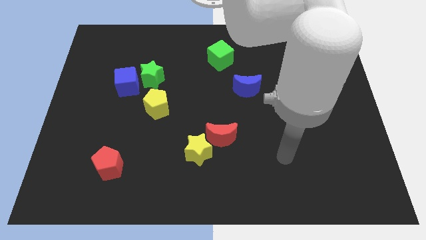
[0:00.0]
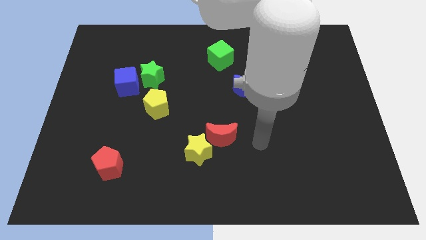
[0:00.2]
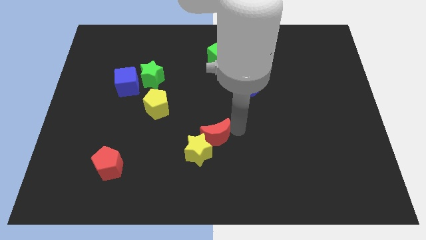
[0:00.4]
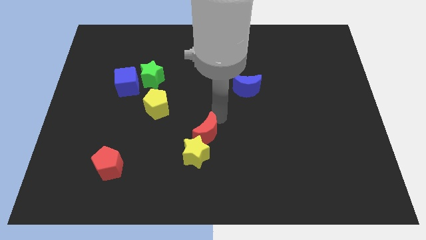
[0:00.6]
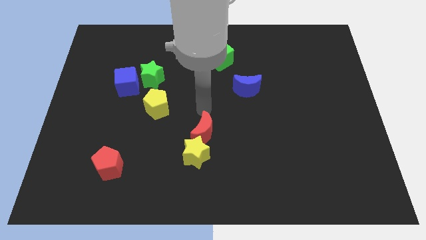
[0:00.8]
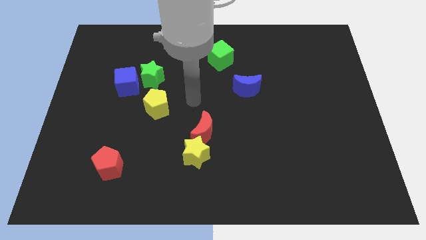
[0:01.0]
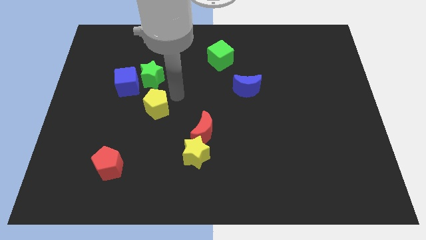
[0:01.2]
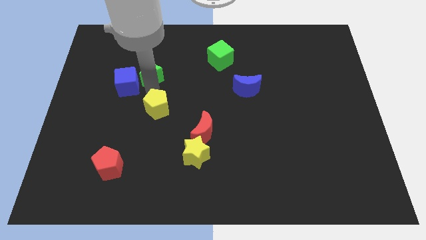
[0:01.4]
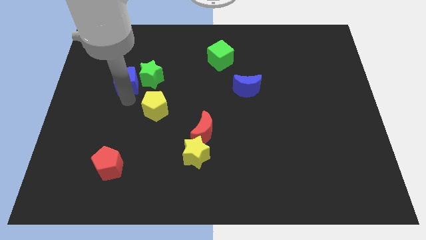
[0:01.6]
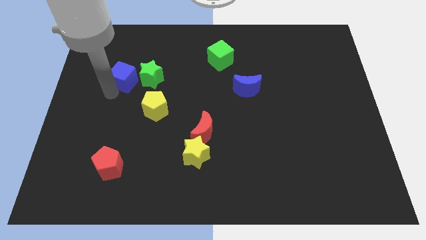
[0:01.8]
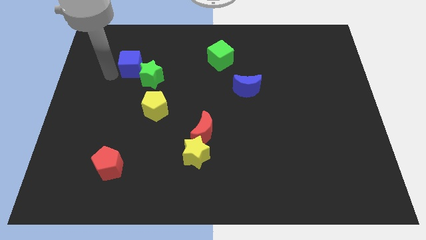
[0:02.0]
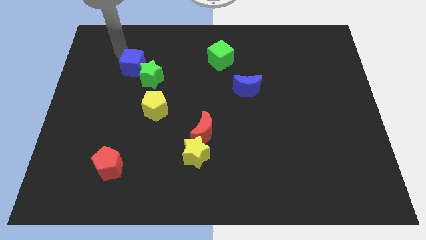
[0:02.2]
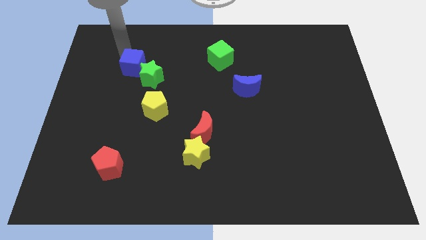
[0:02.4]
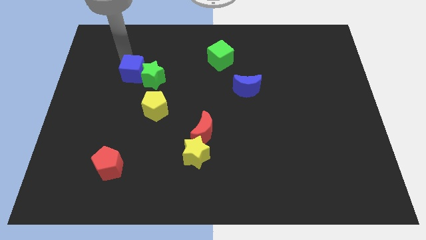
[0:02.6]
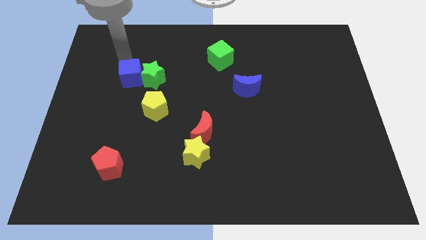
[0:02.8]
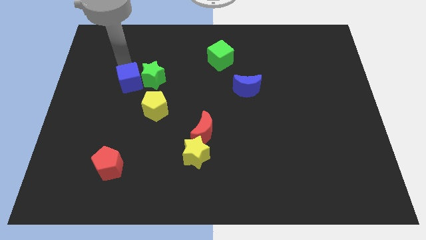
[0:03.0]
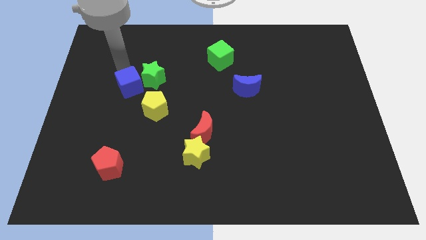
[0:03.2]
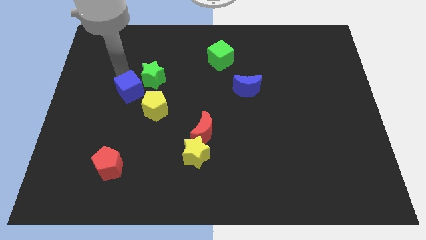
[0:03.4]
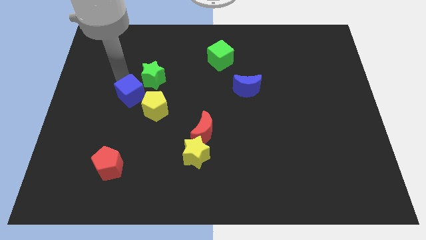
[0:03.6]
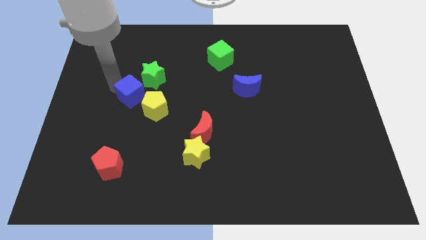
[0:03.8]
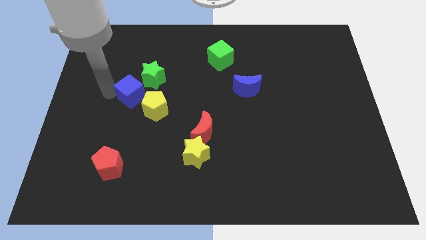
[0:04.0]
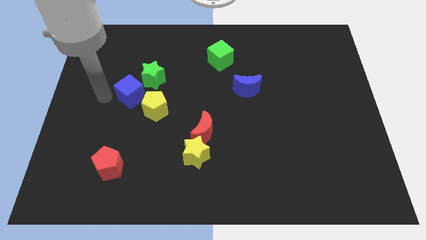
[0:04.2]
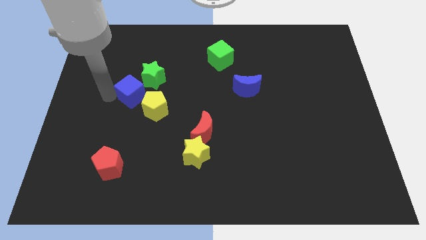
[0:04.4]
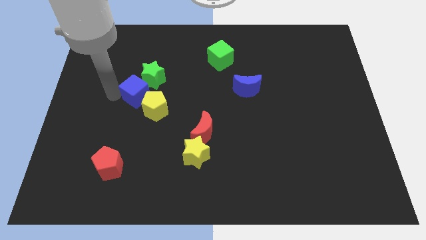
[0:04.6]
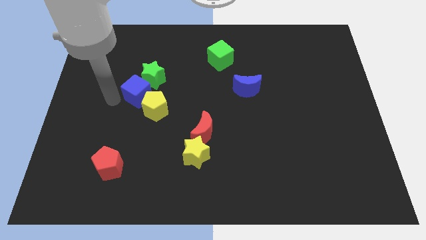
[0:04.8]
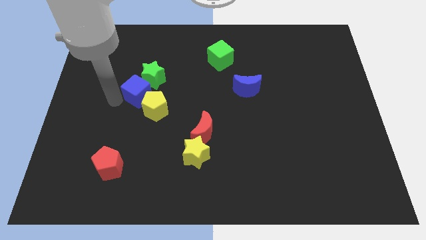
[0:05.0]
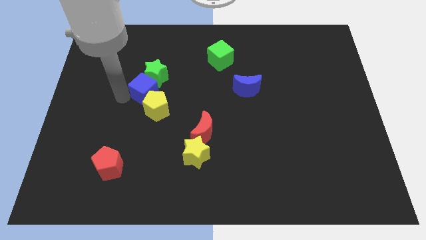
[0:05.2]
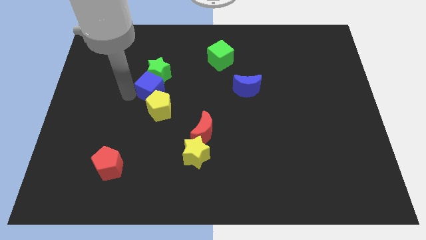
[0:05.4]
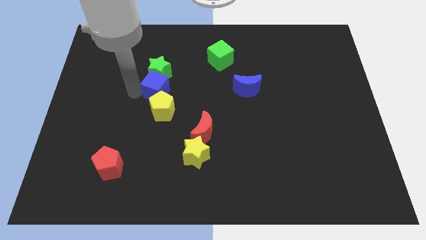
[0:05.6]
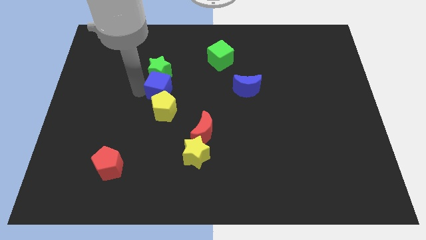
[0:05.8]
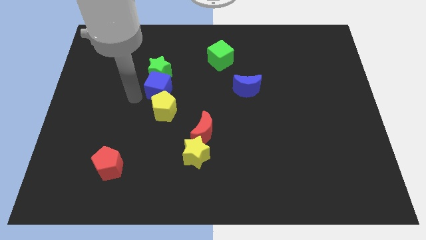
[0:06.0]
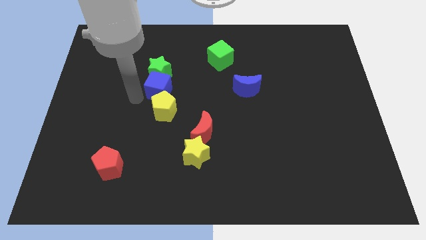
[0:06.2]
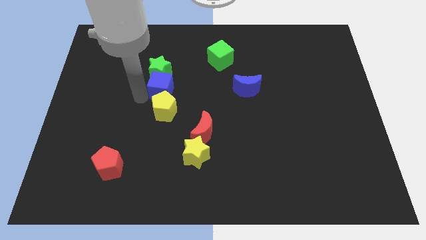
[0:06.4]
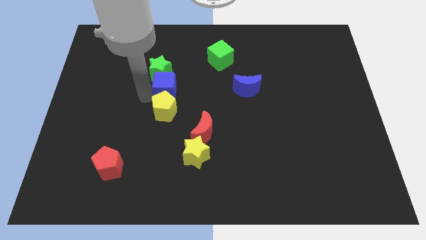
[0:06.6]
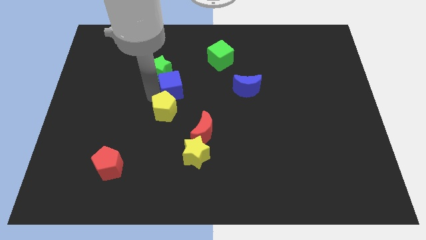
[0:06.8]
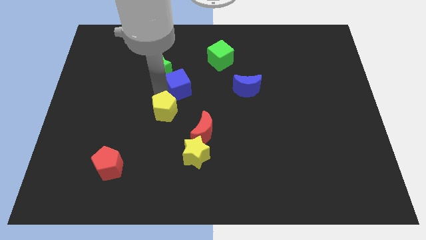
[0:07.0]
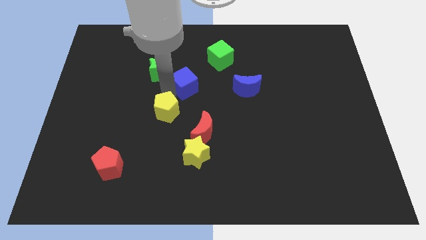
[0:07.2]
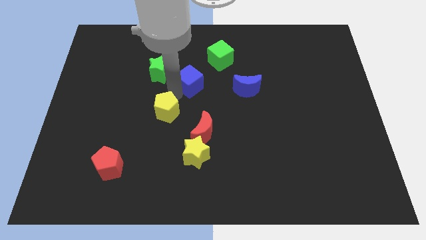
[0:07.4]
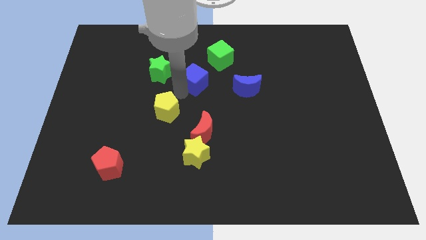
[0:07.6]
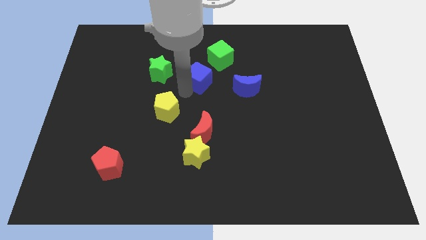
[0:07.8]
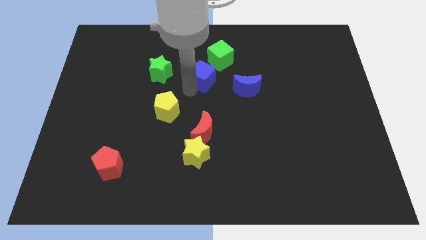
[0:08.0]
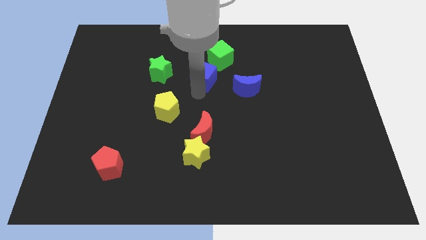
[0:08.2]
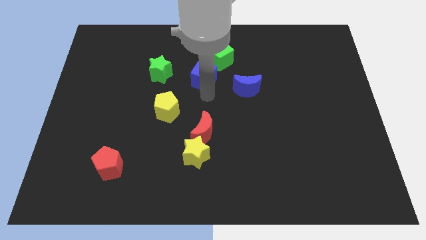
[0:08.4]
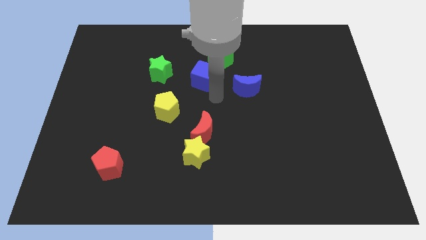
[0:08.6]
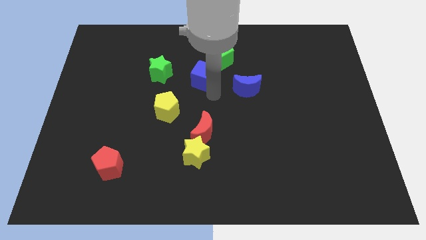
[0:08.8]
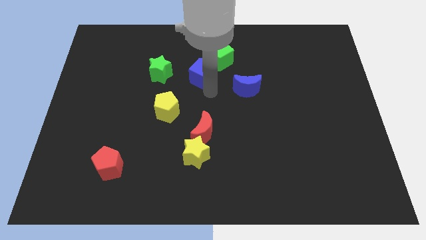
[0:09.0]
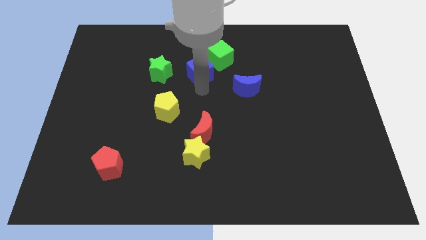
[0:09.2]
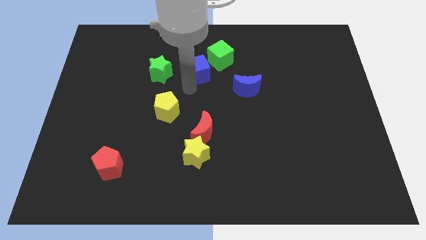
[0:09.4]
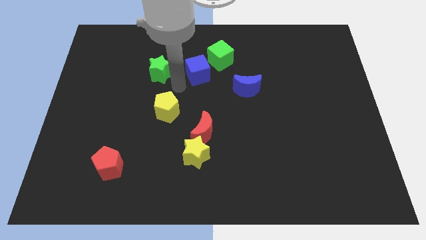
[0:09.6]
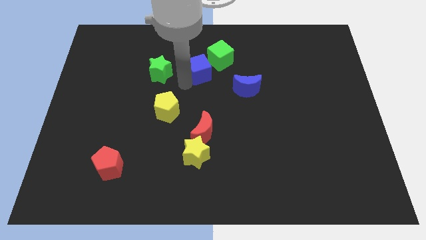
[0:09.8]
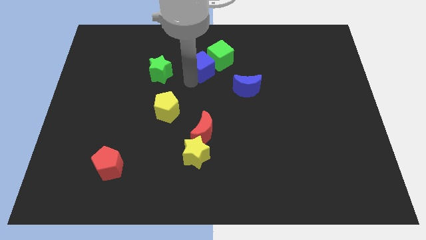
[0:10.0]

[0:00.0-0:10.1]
move the blue cube to the green cube

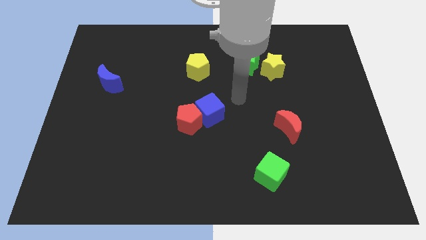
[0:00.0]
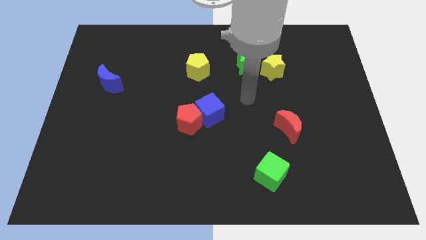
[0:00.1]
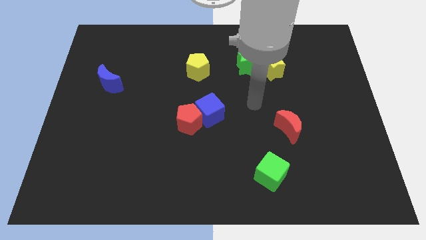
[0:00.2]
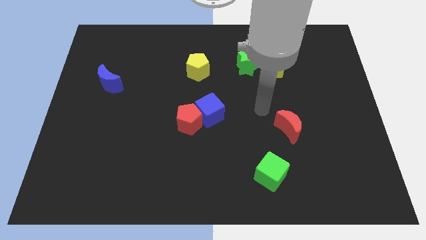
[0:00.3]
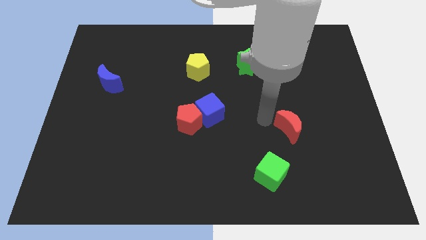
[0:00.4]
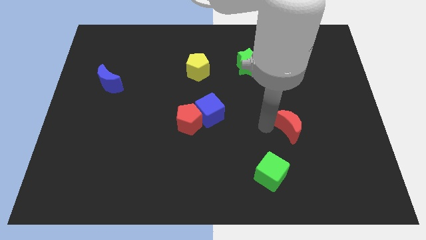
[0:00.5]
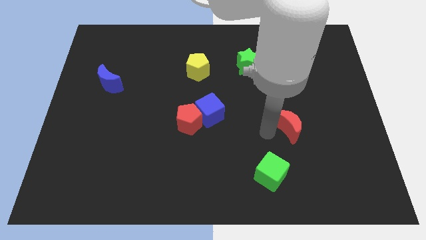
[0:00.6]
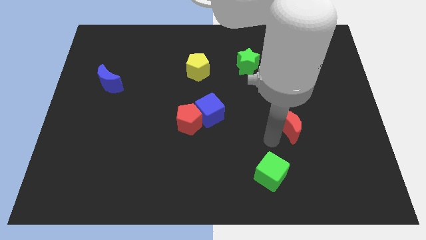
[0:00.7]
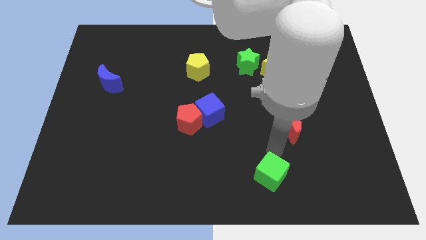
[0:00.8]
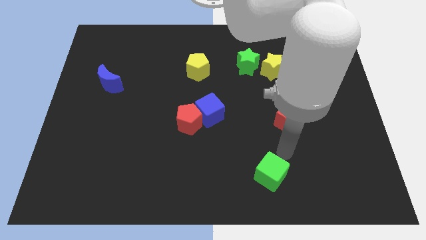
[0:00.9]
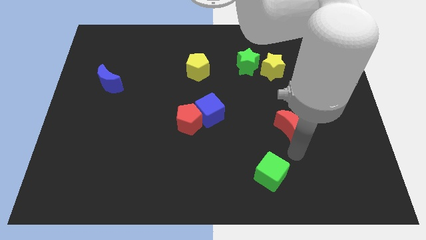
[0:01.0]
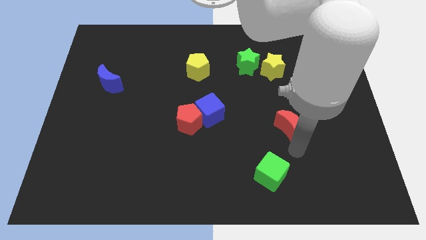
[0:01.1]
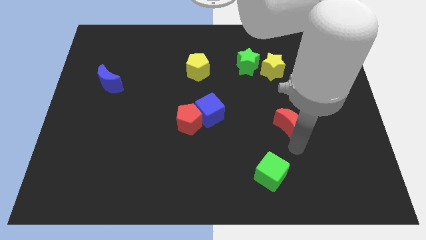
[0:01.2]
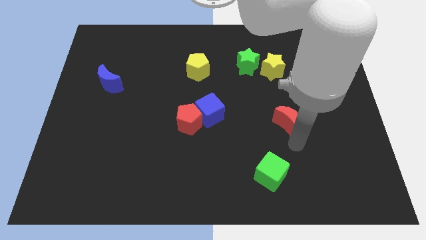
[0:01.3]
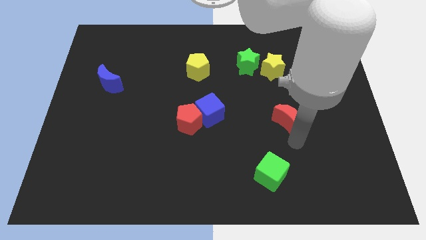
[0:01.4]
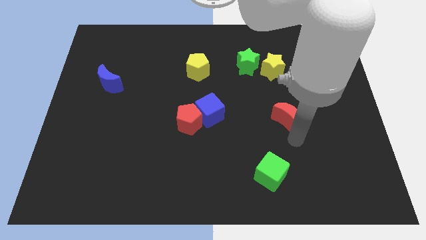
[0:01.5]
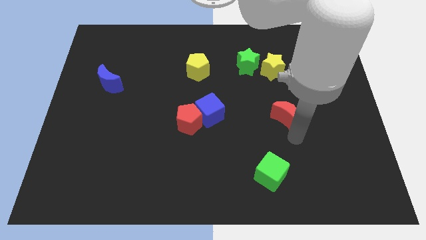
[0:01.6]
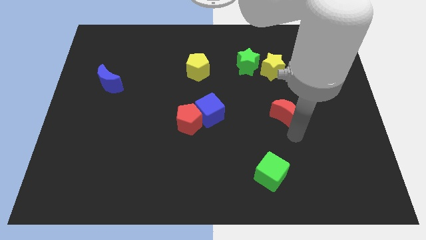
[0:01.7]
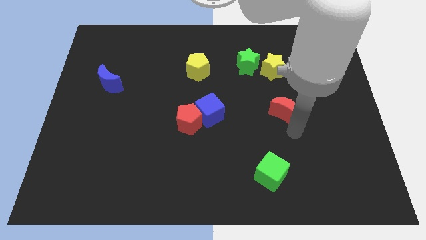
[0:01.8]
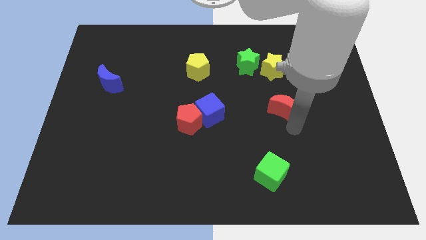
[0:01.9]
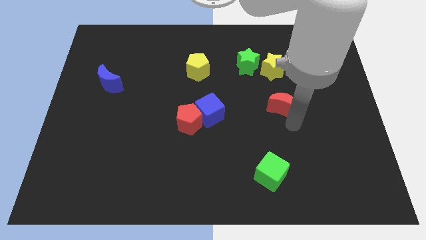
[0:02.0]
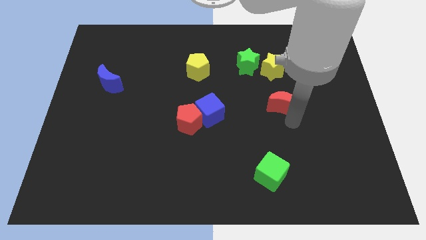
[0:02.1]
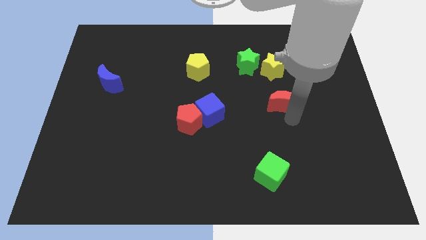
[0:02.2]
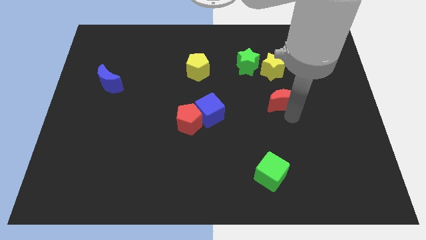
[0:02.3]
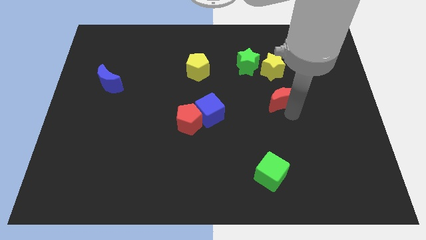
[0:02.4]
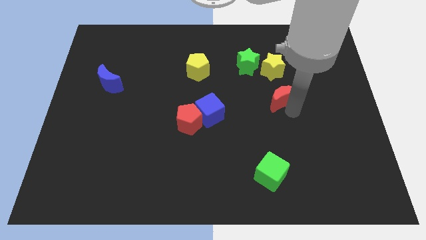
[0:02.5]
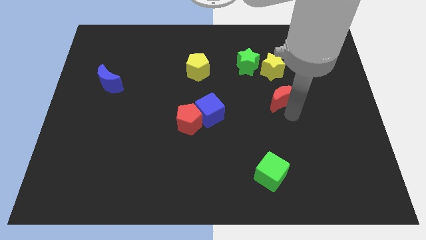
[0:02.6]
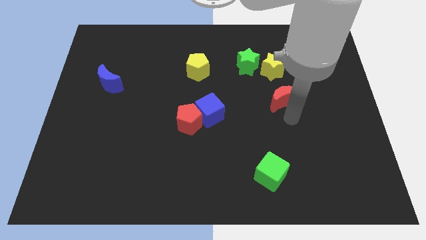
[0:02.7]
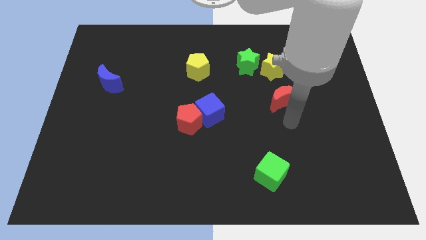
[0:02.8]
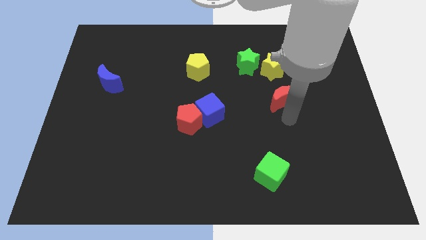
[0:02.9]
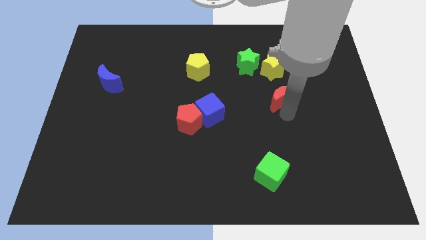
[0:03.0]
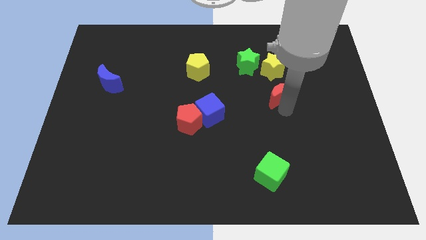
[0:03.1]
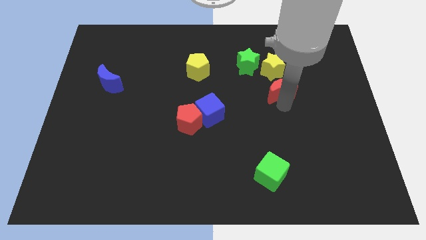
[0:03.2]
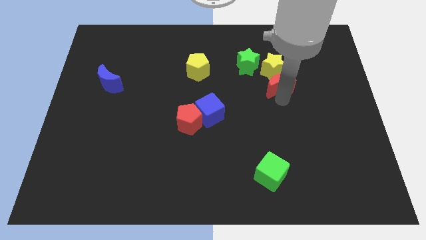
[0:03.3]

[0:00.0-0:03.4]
push the red moon close to the yellow star
